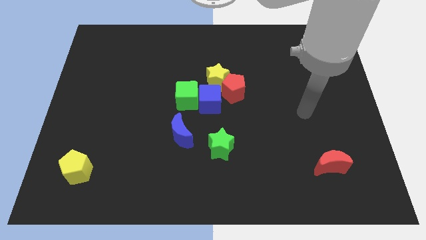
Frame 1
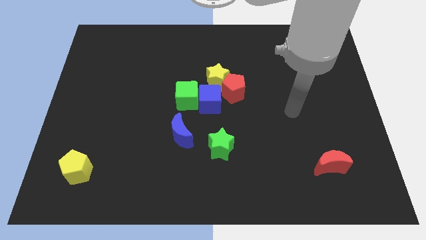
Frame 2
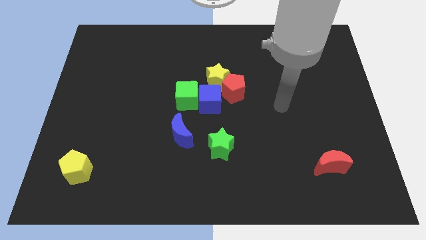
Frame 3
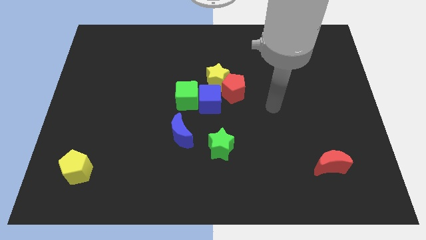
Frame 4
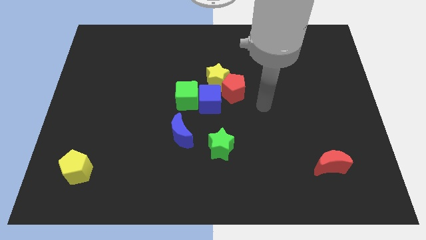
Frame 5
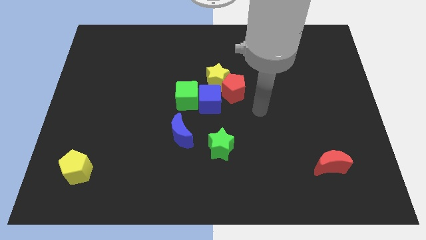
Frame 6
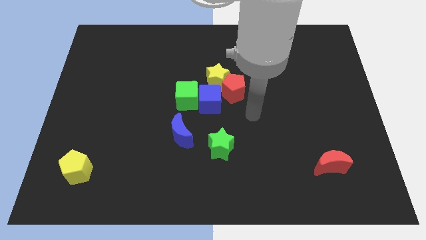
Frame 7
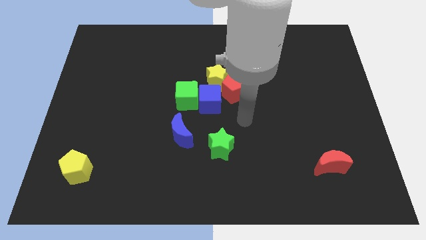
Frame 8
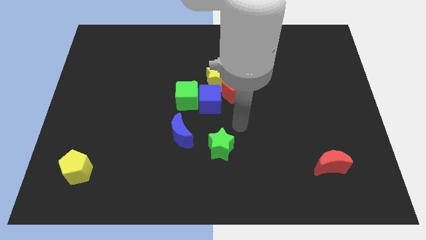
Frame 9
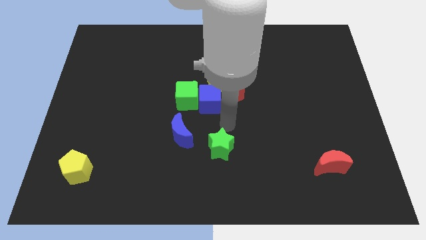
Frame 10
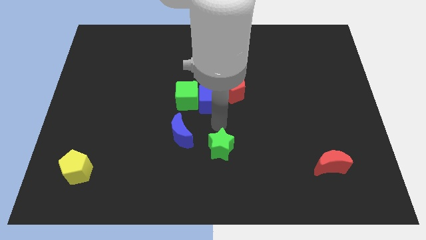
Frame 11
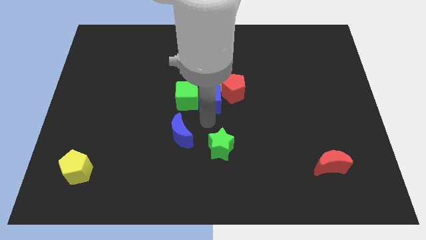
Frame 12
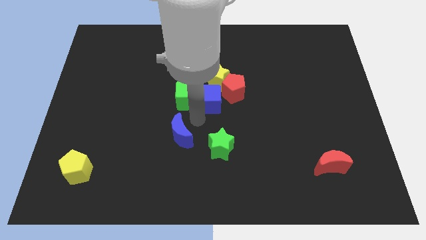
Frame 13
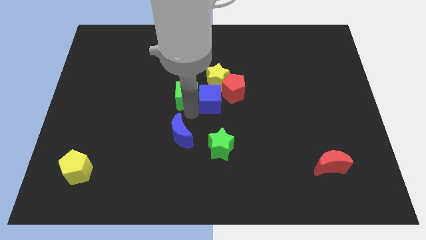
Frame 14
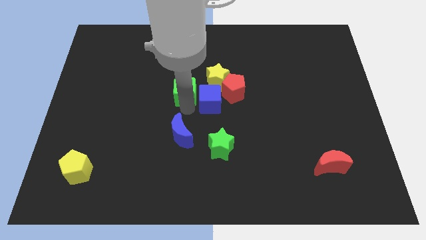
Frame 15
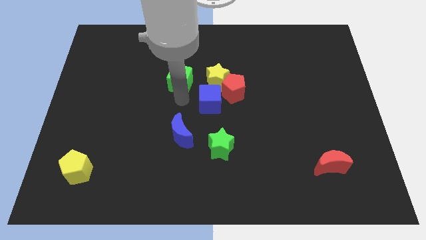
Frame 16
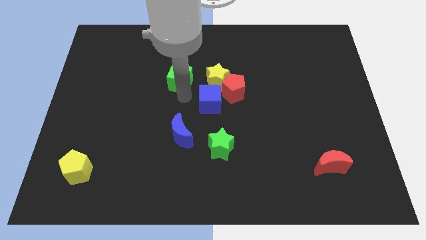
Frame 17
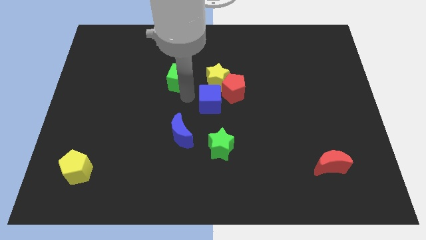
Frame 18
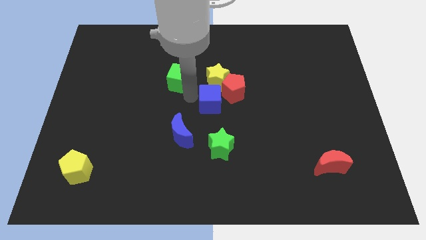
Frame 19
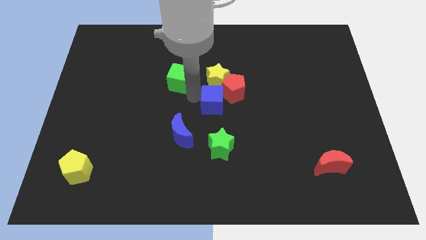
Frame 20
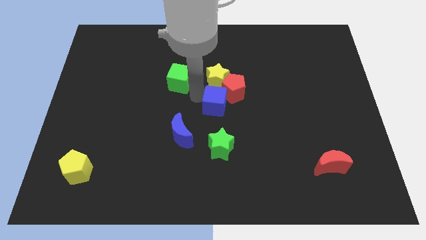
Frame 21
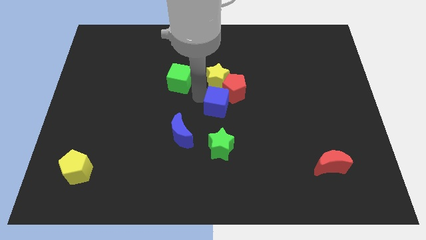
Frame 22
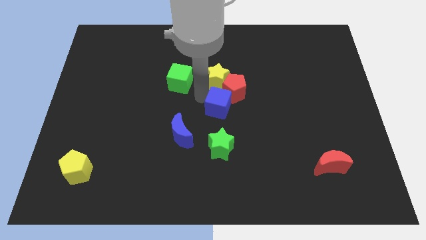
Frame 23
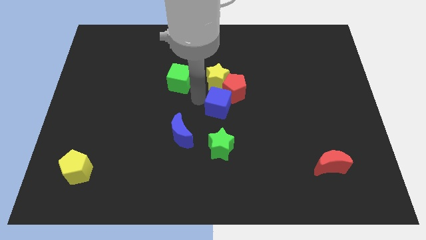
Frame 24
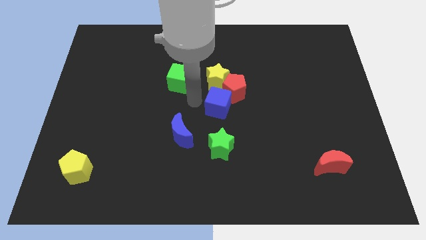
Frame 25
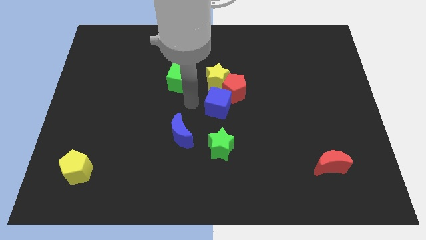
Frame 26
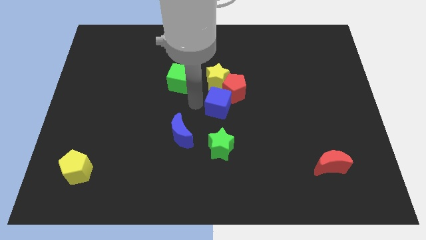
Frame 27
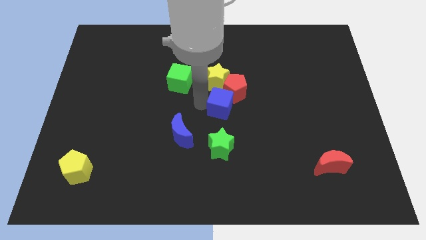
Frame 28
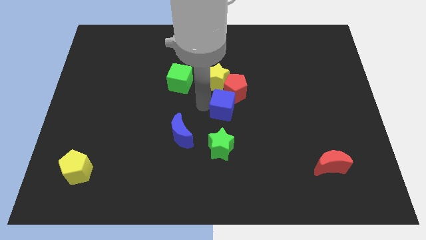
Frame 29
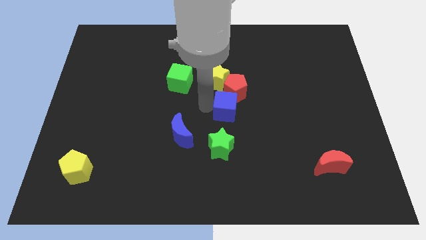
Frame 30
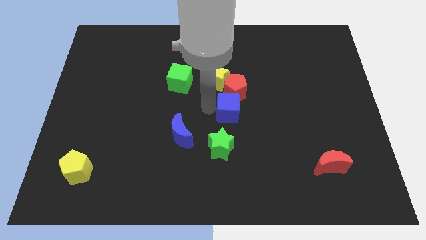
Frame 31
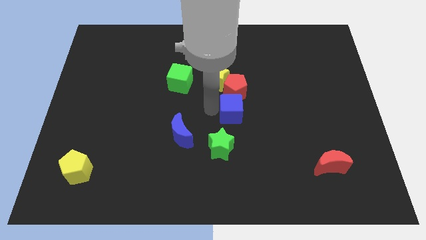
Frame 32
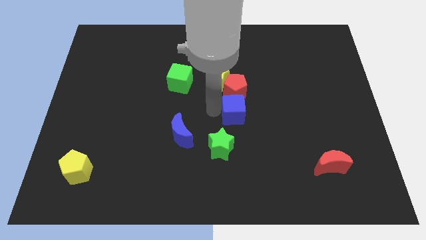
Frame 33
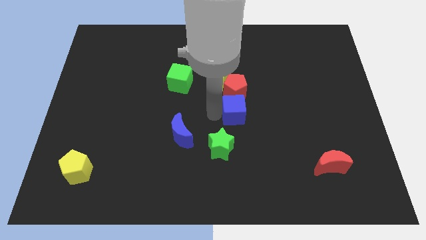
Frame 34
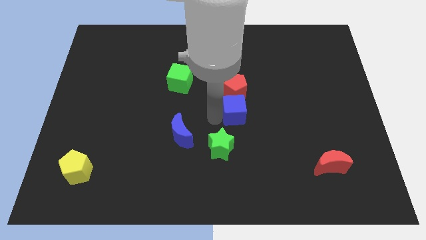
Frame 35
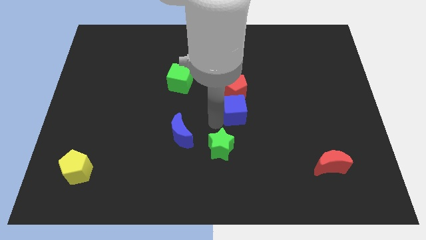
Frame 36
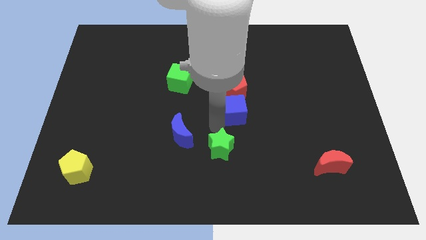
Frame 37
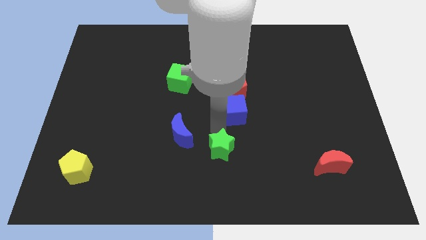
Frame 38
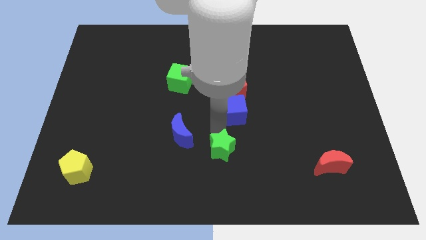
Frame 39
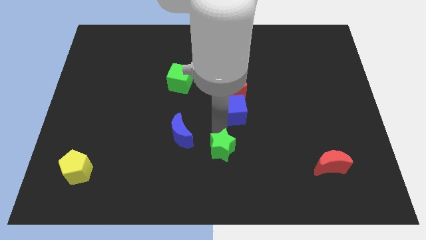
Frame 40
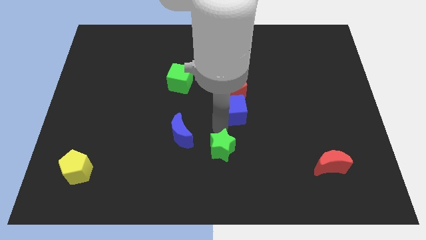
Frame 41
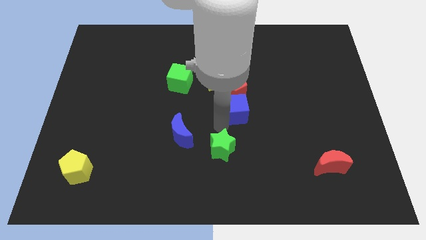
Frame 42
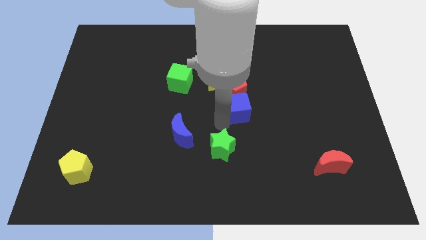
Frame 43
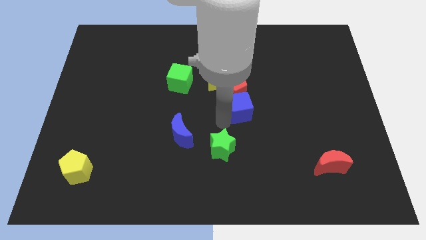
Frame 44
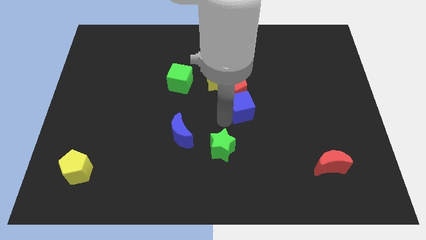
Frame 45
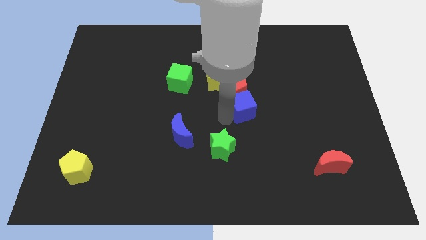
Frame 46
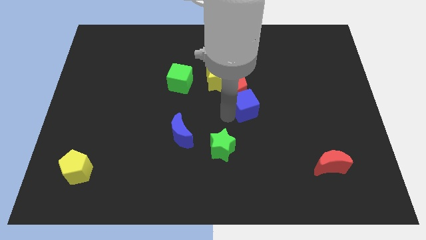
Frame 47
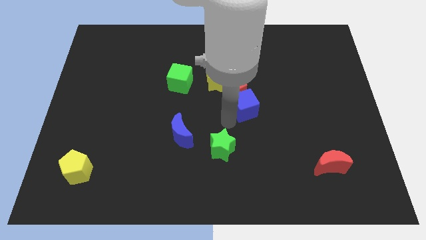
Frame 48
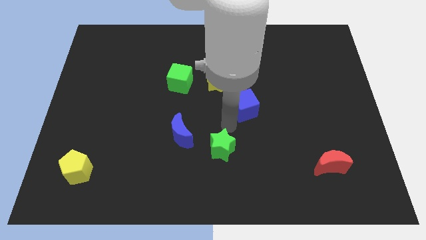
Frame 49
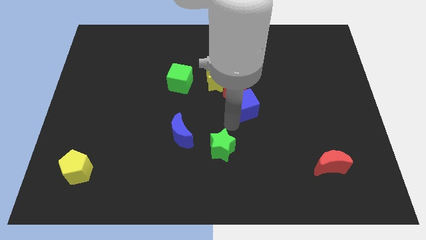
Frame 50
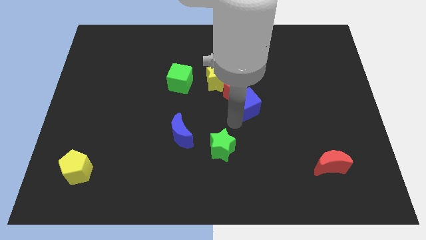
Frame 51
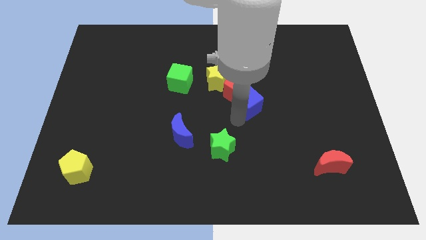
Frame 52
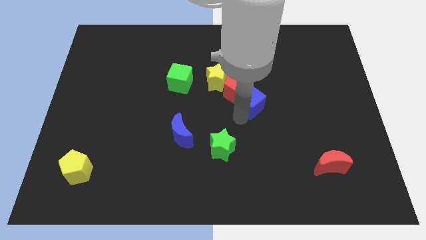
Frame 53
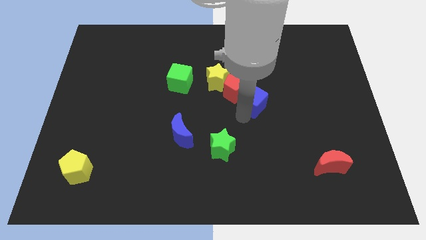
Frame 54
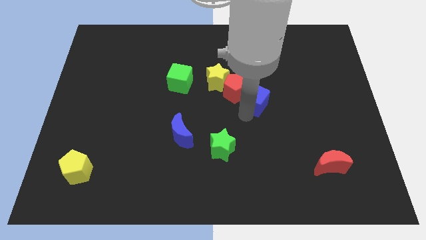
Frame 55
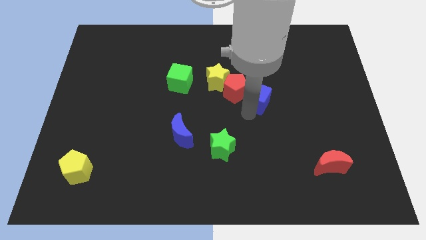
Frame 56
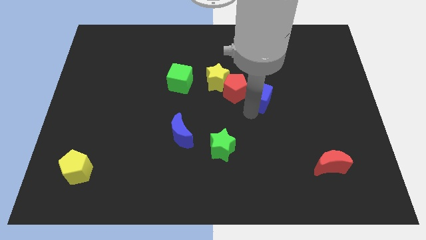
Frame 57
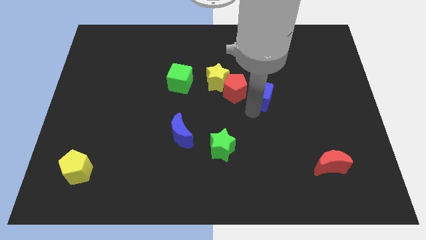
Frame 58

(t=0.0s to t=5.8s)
move the blue cube a little upwards and to the right diagonally

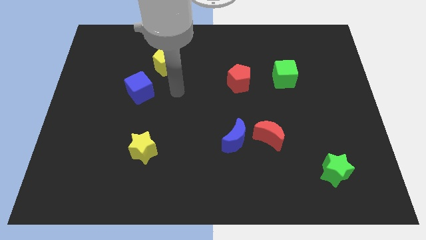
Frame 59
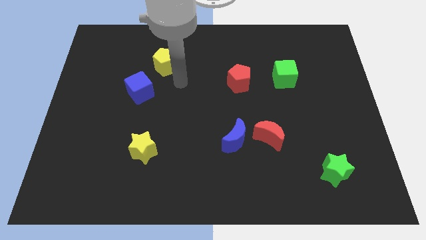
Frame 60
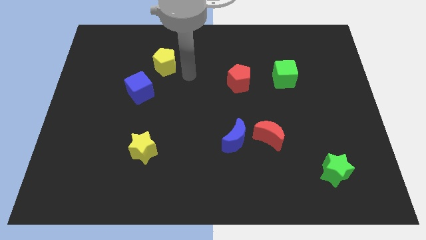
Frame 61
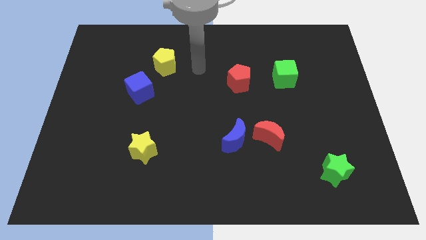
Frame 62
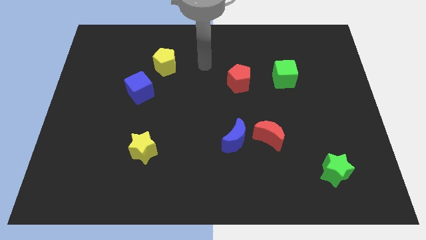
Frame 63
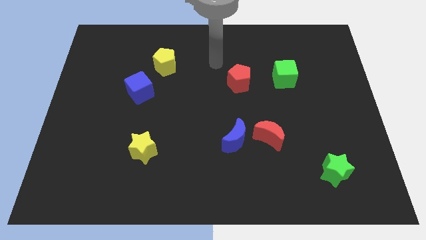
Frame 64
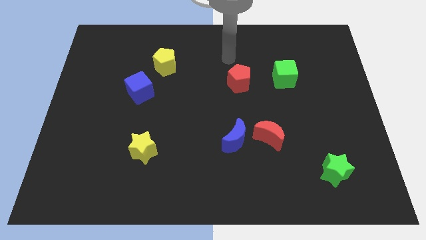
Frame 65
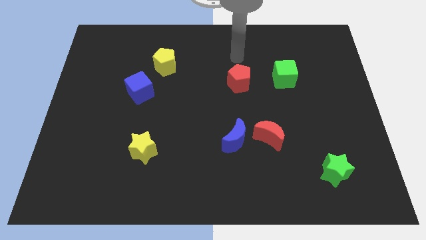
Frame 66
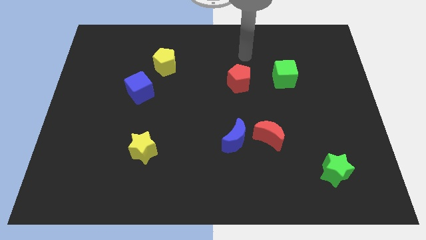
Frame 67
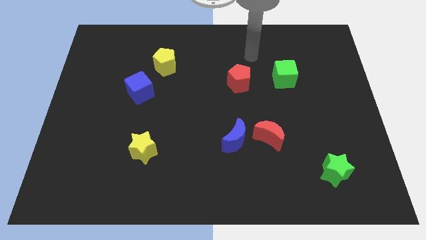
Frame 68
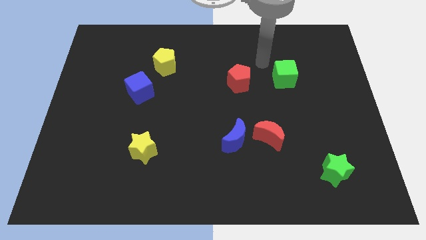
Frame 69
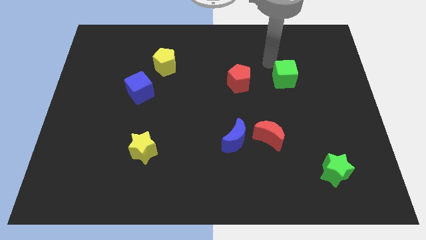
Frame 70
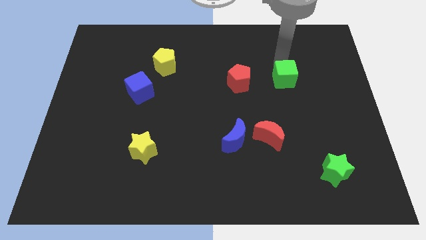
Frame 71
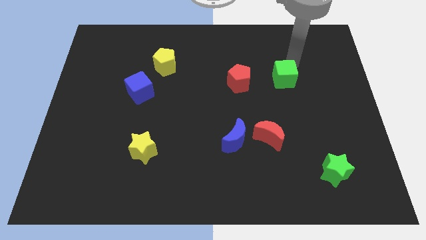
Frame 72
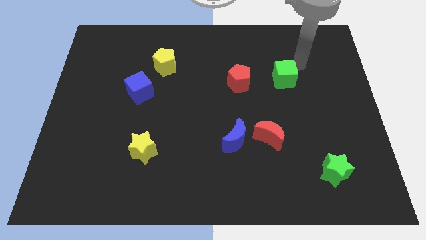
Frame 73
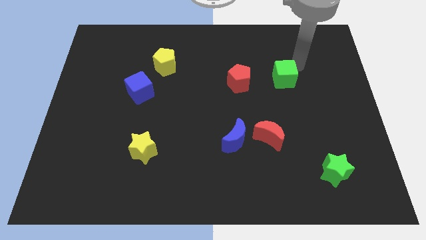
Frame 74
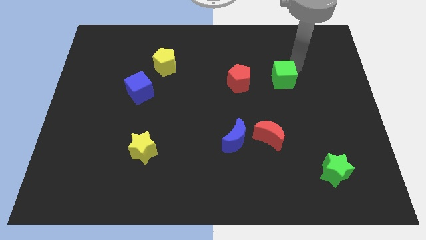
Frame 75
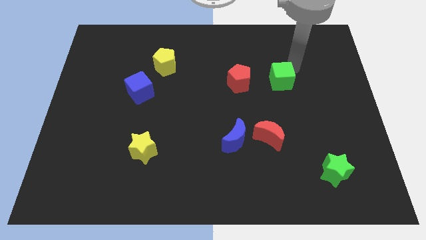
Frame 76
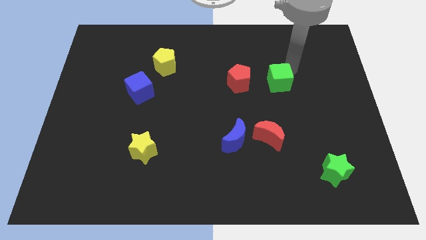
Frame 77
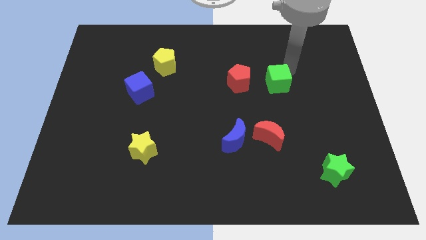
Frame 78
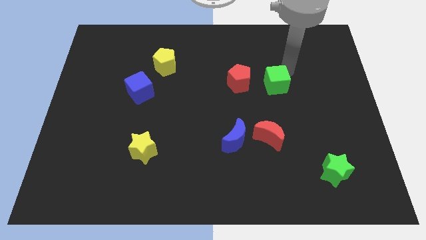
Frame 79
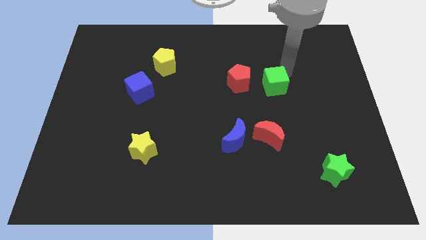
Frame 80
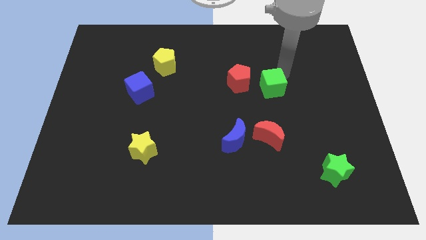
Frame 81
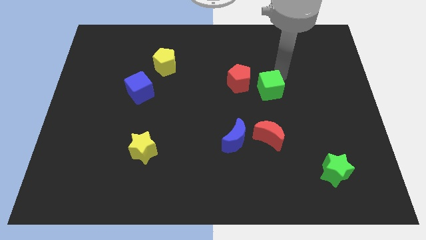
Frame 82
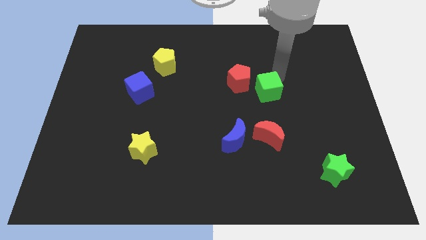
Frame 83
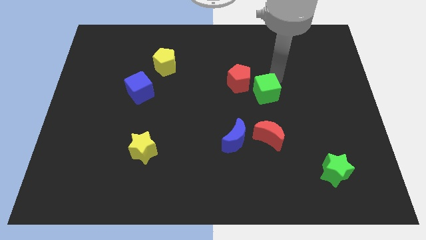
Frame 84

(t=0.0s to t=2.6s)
slide the green cube downwards and then to the left somewhat
